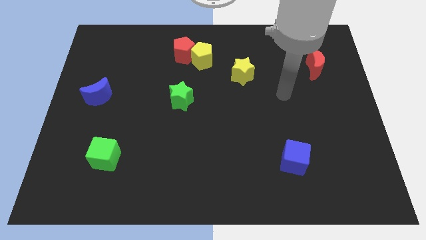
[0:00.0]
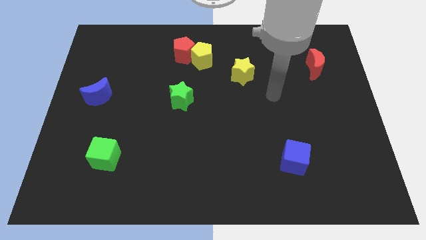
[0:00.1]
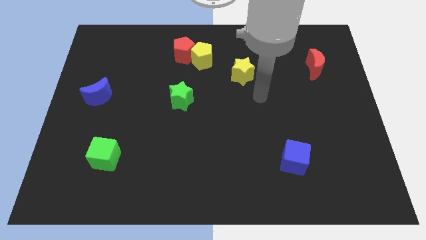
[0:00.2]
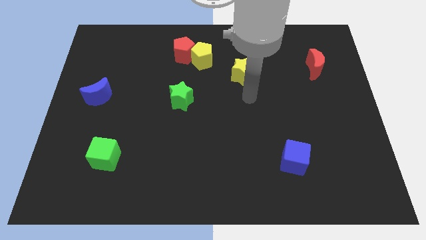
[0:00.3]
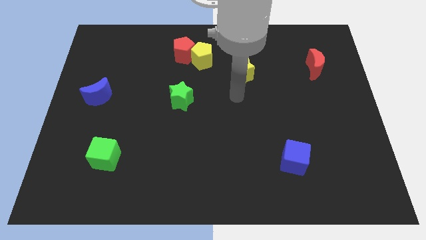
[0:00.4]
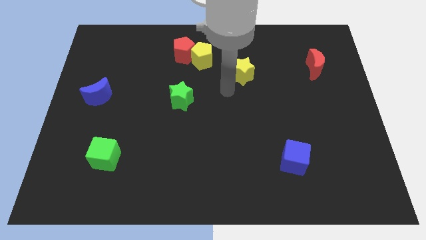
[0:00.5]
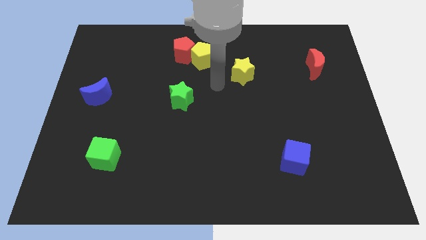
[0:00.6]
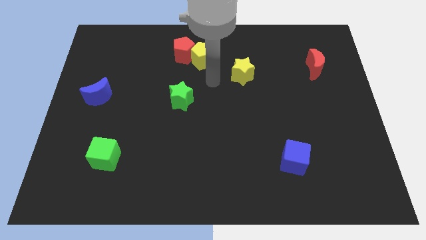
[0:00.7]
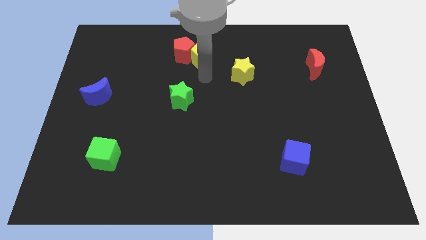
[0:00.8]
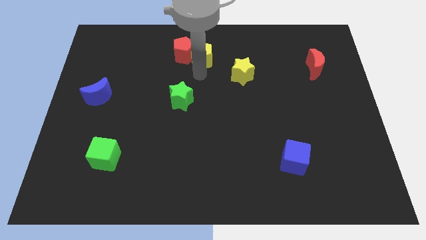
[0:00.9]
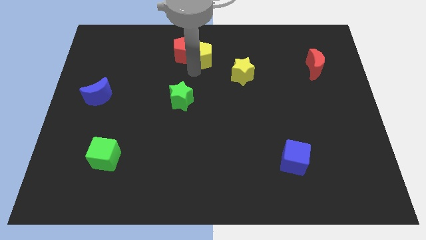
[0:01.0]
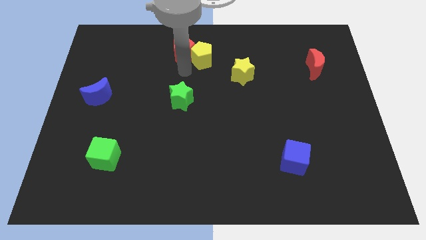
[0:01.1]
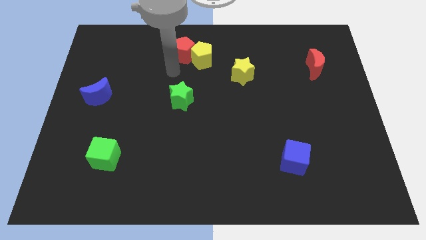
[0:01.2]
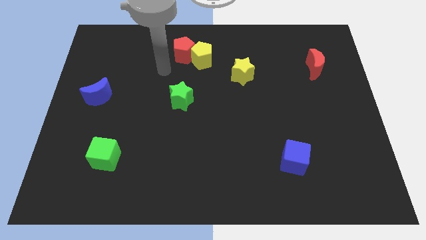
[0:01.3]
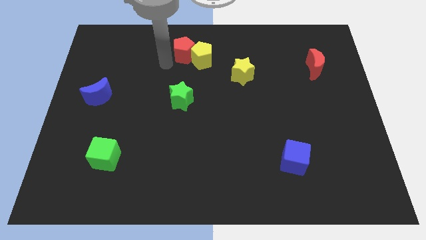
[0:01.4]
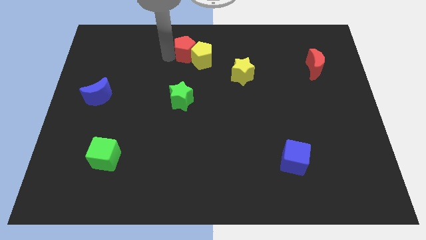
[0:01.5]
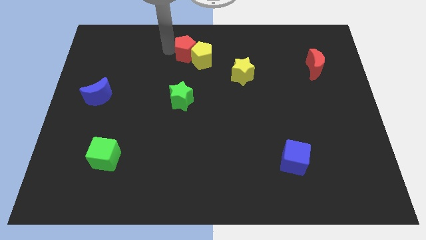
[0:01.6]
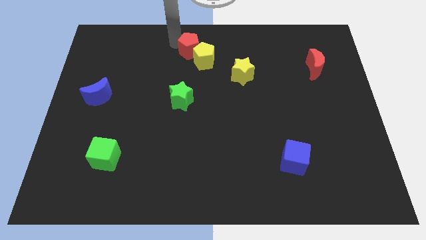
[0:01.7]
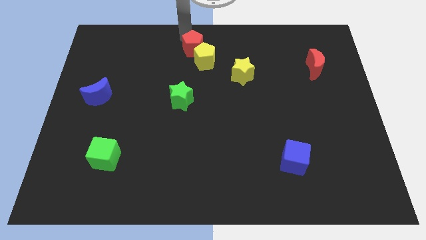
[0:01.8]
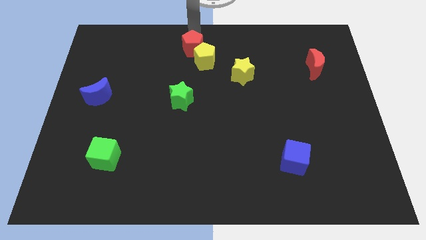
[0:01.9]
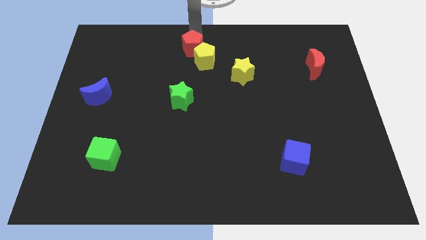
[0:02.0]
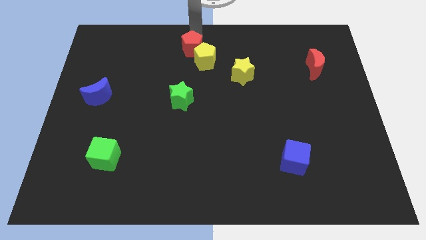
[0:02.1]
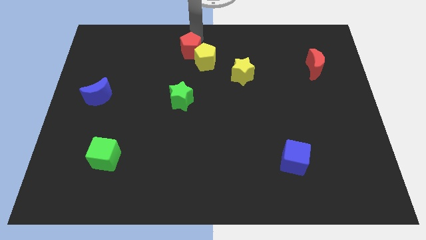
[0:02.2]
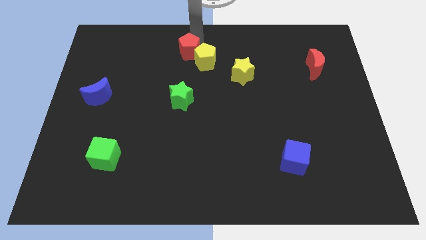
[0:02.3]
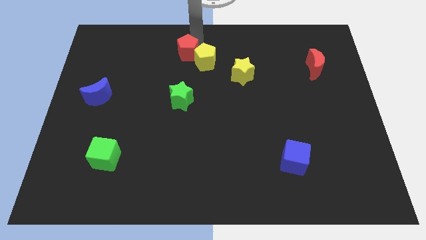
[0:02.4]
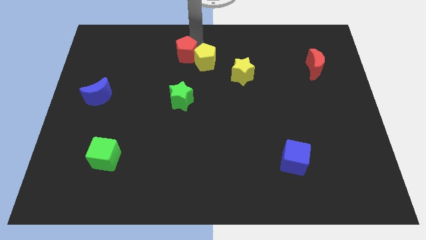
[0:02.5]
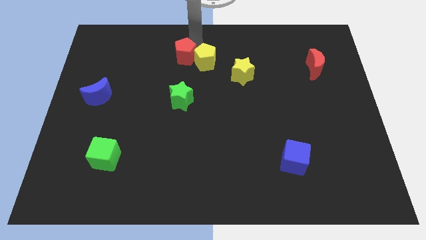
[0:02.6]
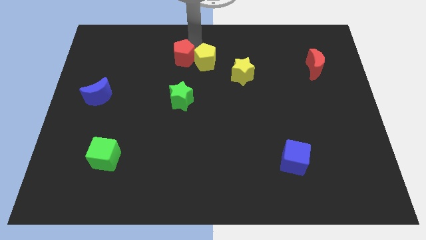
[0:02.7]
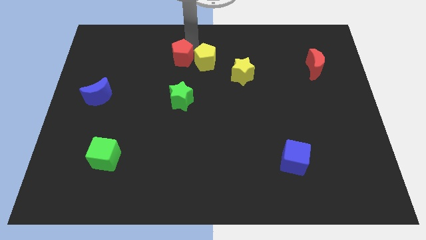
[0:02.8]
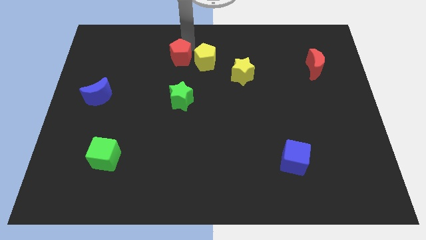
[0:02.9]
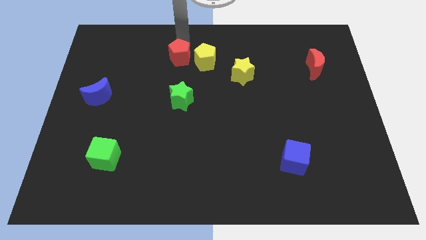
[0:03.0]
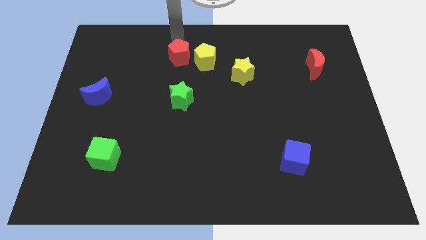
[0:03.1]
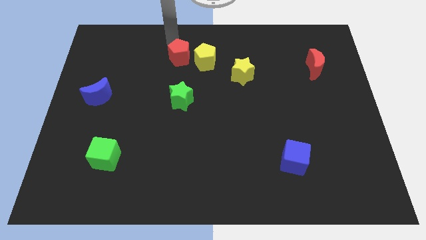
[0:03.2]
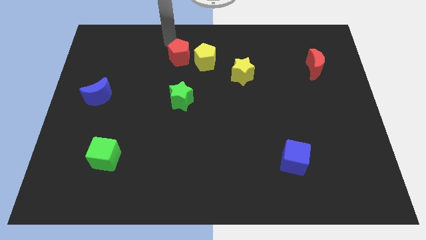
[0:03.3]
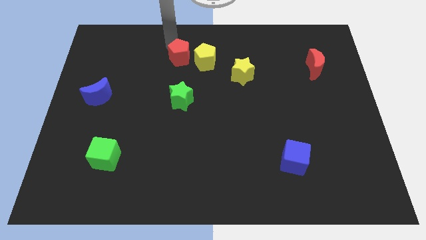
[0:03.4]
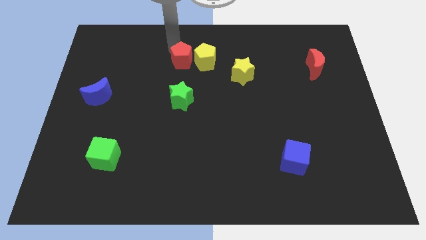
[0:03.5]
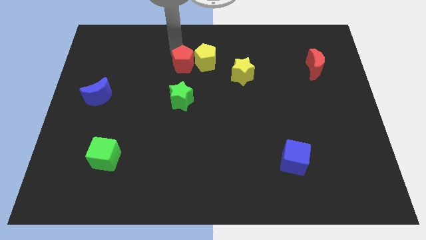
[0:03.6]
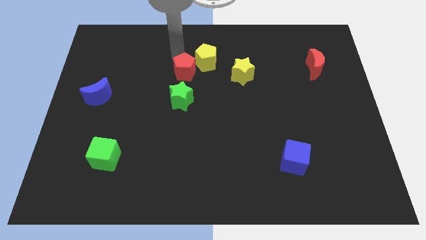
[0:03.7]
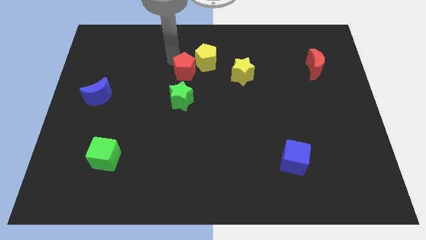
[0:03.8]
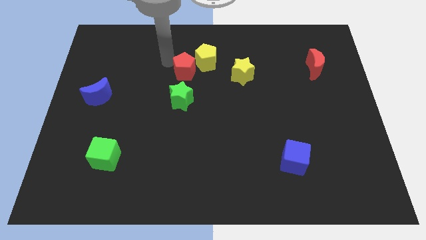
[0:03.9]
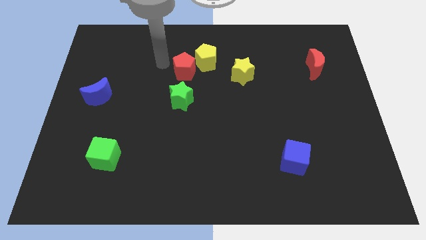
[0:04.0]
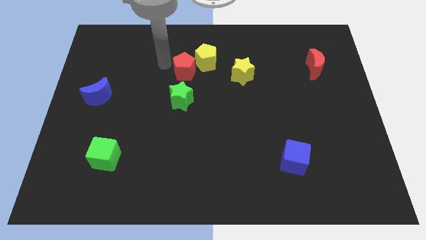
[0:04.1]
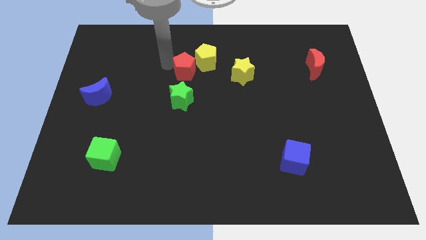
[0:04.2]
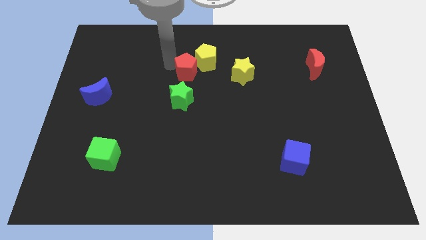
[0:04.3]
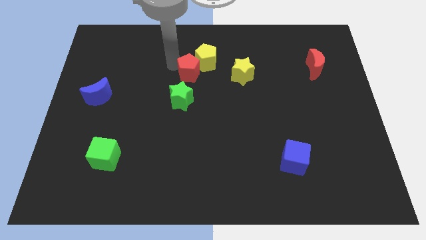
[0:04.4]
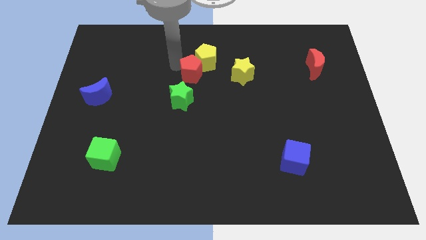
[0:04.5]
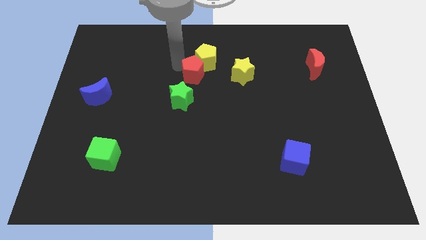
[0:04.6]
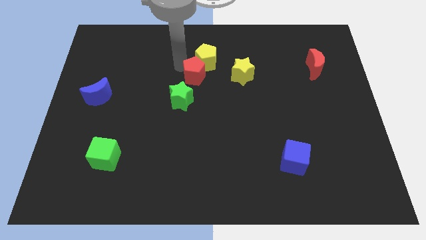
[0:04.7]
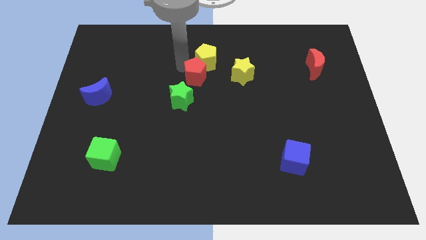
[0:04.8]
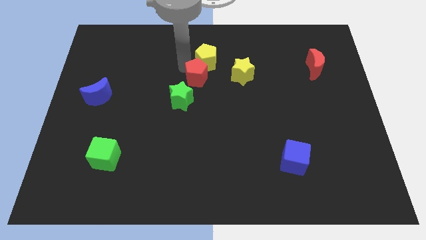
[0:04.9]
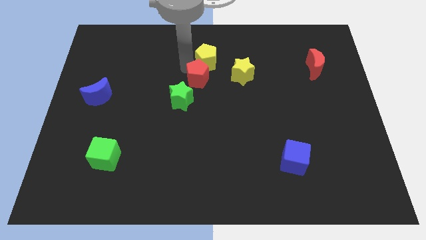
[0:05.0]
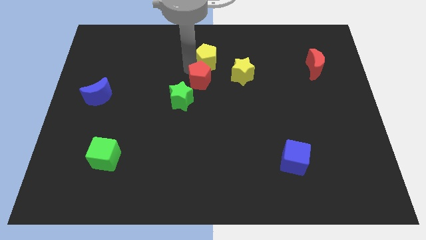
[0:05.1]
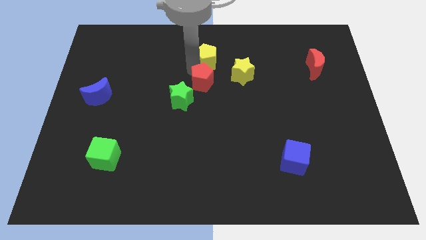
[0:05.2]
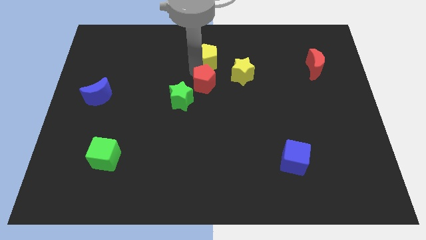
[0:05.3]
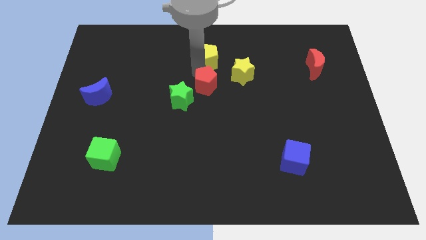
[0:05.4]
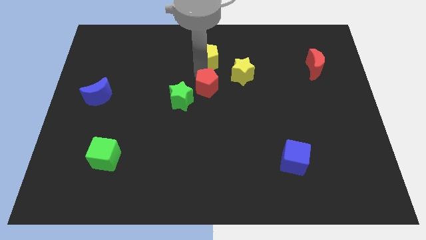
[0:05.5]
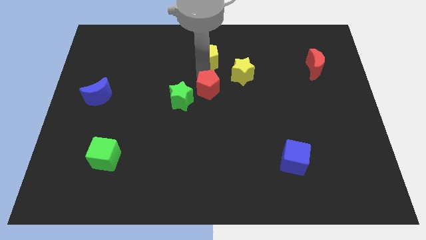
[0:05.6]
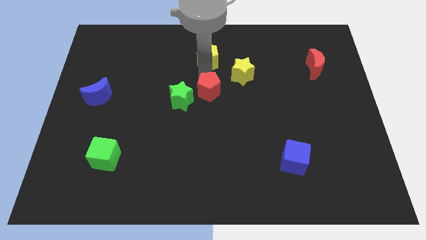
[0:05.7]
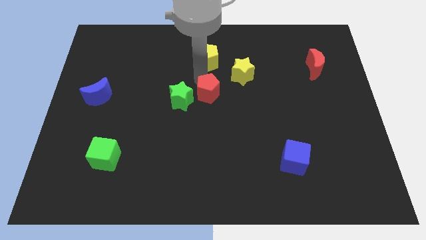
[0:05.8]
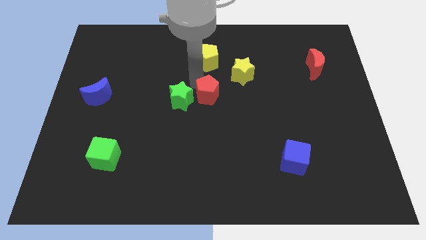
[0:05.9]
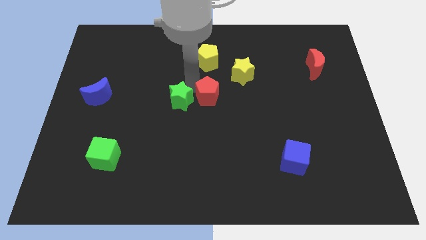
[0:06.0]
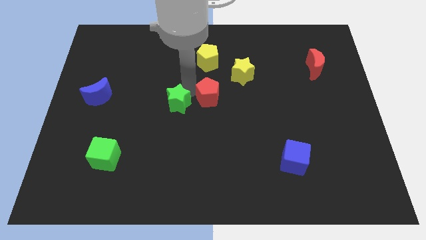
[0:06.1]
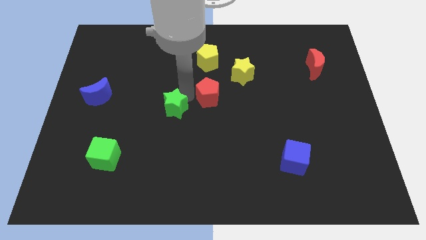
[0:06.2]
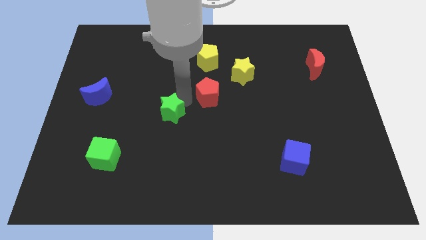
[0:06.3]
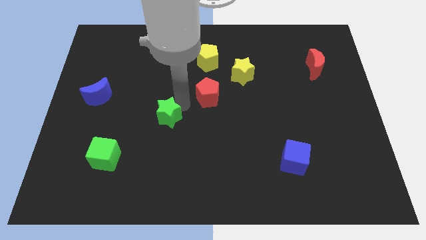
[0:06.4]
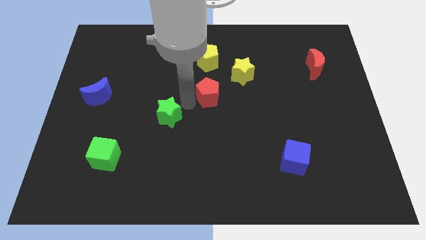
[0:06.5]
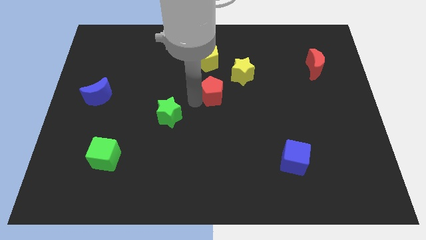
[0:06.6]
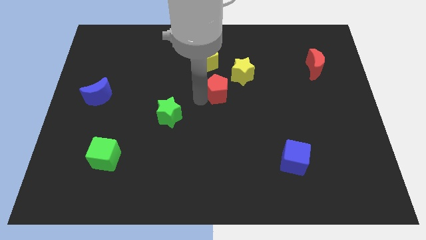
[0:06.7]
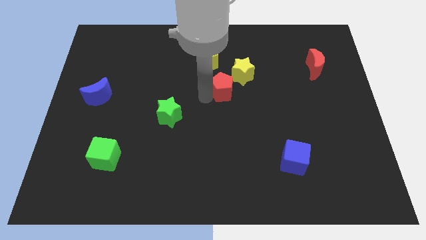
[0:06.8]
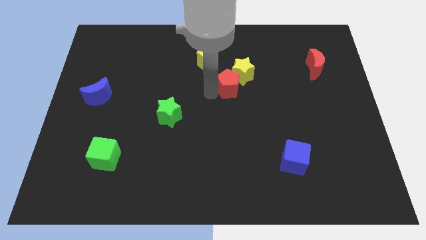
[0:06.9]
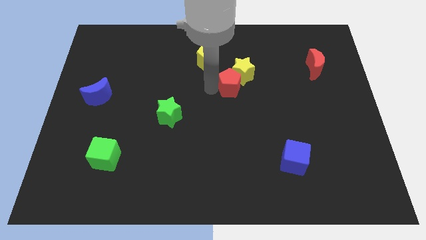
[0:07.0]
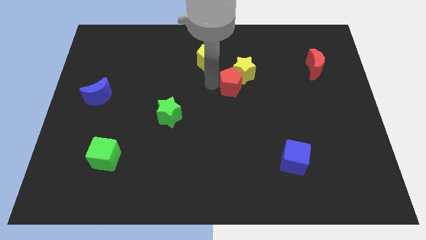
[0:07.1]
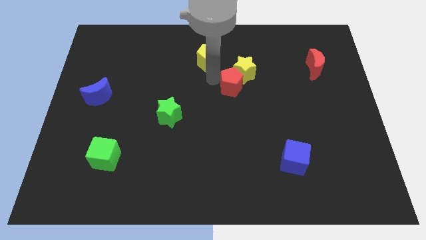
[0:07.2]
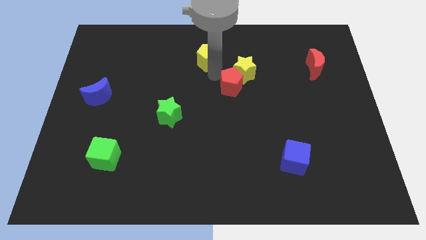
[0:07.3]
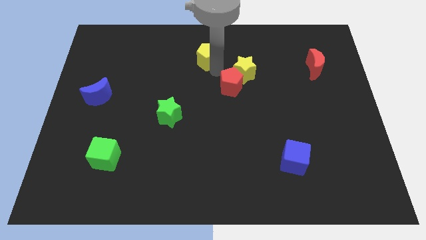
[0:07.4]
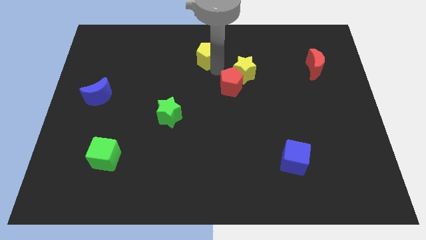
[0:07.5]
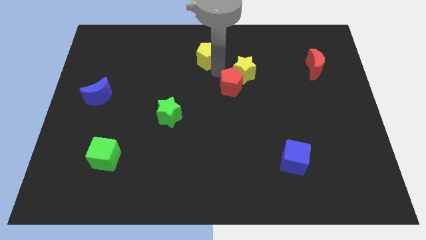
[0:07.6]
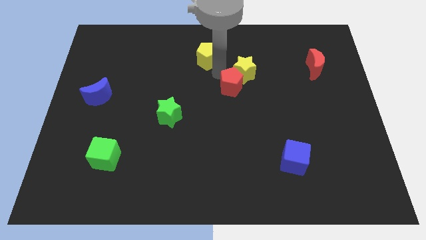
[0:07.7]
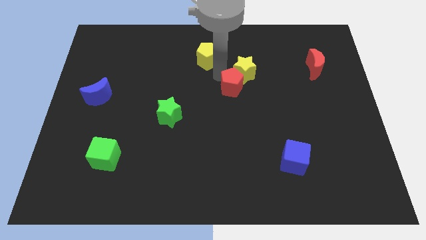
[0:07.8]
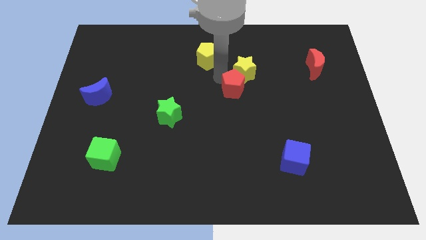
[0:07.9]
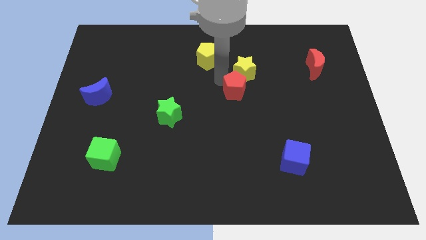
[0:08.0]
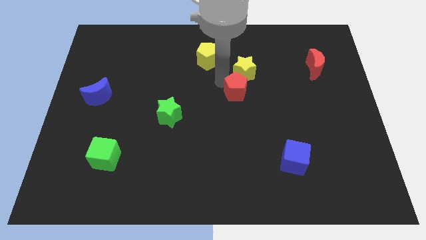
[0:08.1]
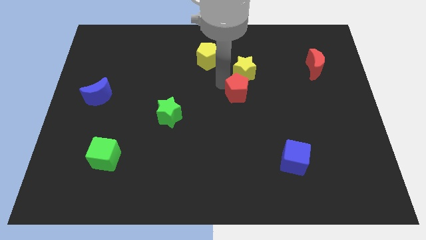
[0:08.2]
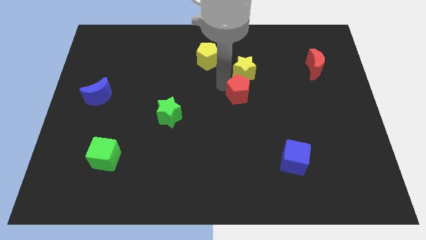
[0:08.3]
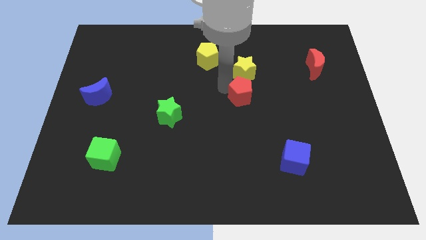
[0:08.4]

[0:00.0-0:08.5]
move the red pentagon downwards and then to the right
